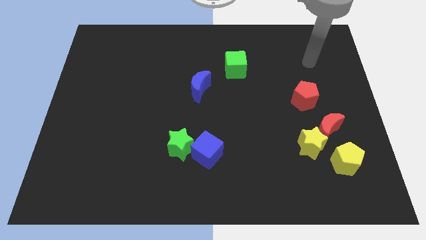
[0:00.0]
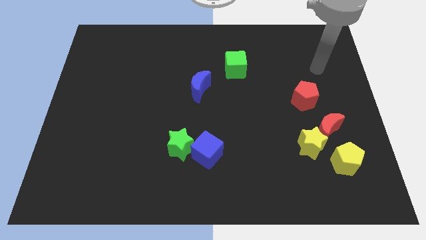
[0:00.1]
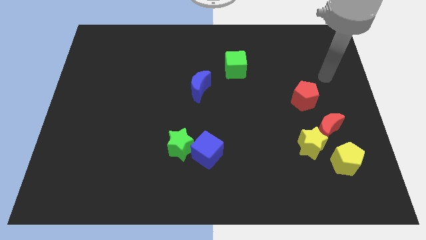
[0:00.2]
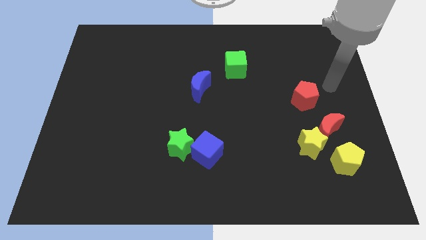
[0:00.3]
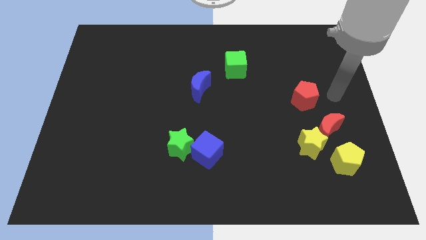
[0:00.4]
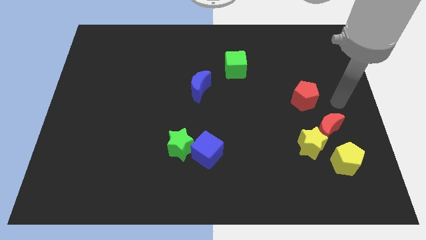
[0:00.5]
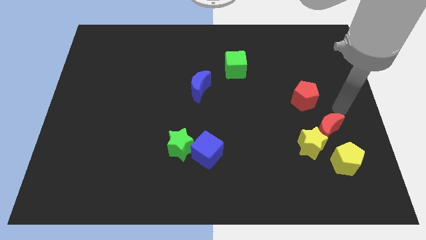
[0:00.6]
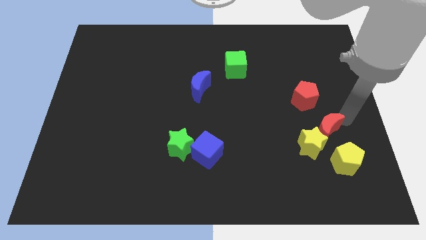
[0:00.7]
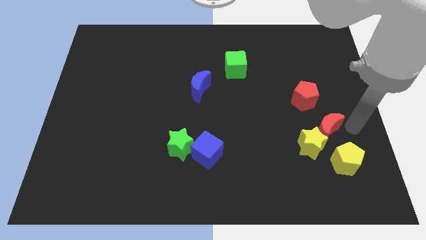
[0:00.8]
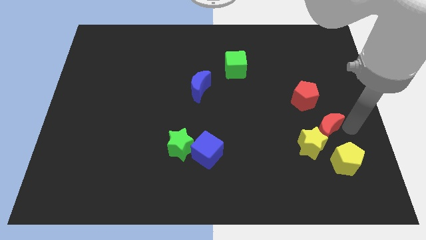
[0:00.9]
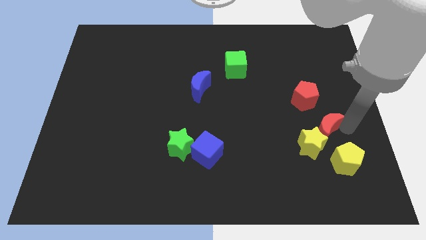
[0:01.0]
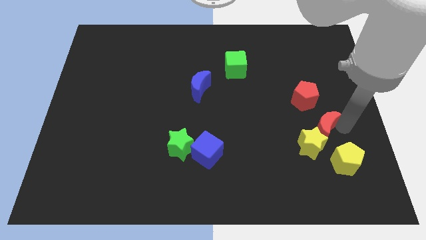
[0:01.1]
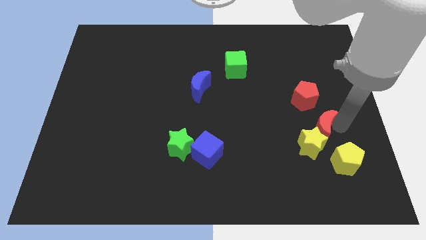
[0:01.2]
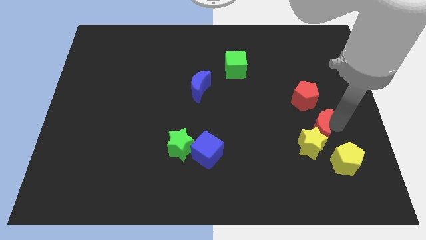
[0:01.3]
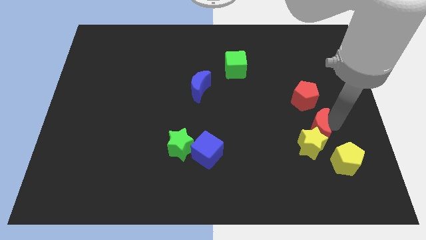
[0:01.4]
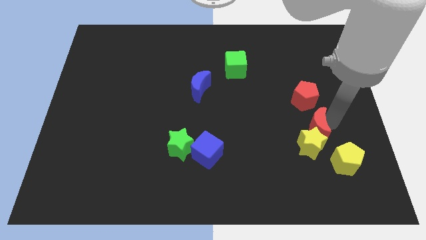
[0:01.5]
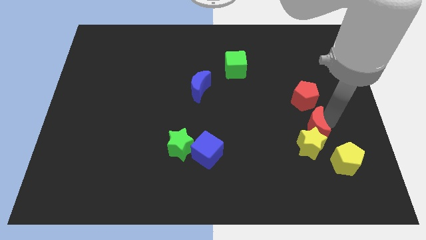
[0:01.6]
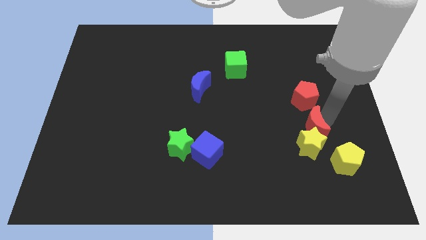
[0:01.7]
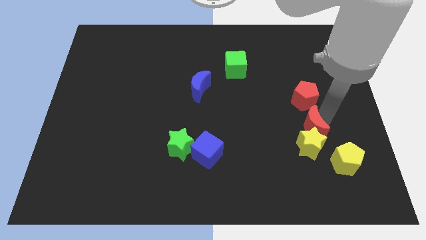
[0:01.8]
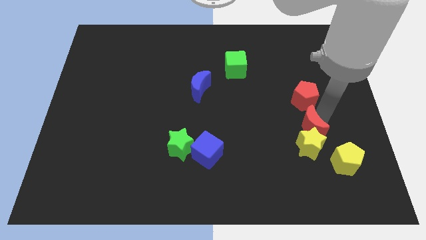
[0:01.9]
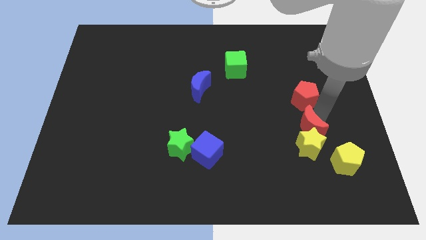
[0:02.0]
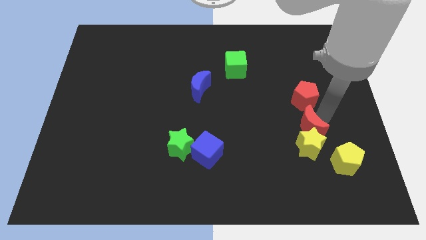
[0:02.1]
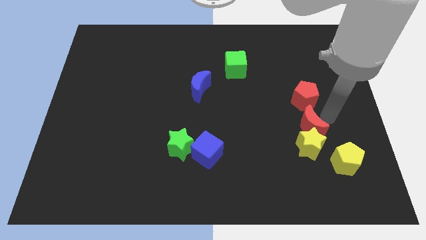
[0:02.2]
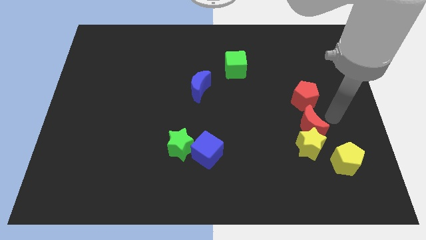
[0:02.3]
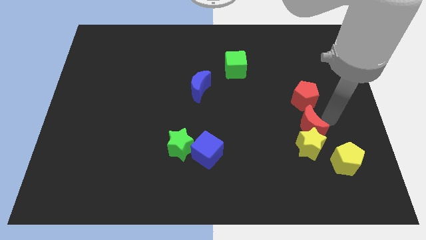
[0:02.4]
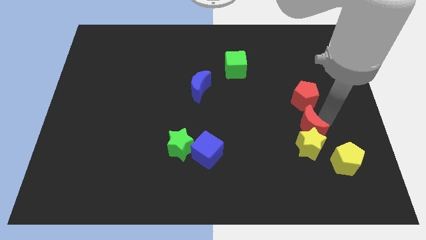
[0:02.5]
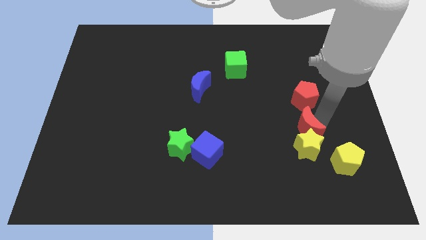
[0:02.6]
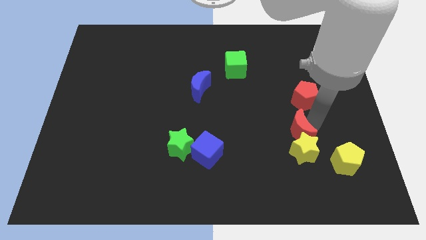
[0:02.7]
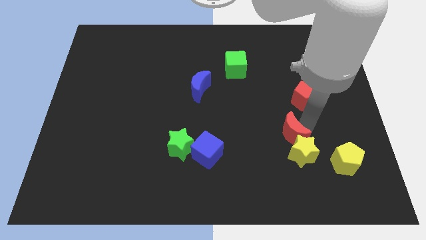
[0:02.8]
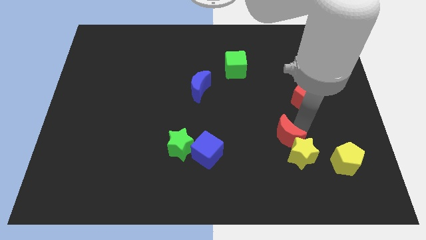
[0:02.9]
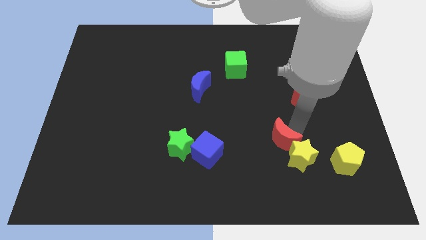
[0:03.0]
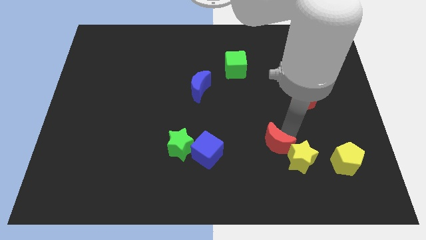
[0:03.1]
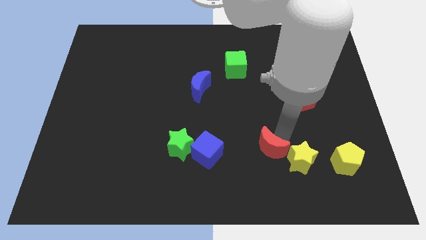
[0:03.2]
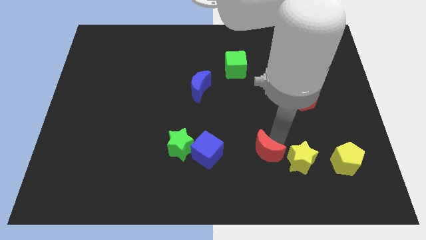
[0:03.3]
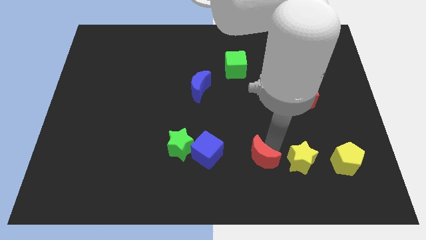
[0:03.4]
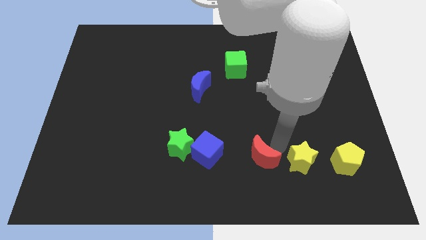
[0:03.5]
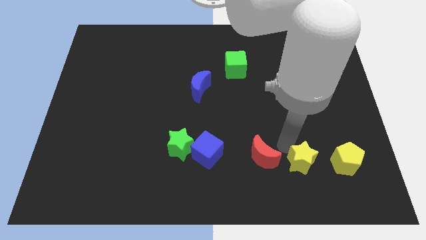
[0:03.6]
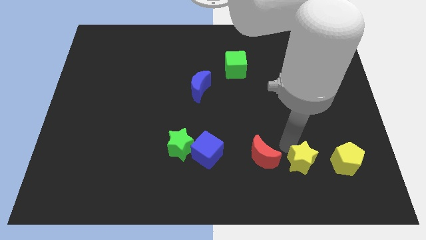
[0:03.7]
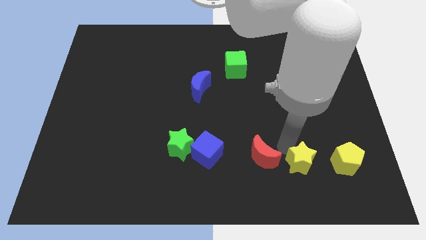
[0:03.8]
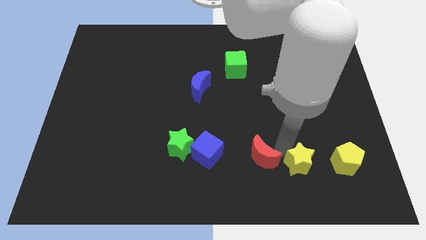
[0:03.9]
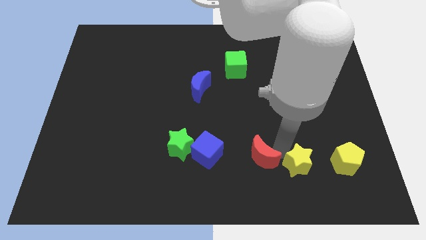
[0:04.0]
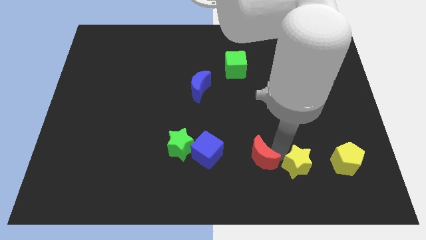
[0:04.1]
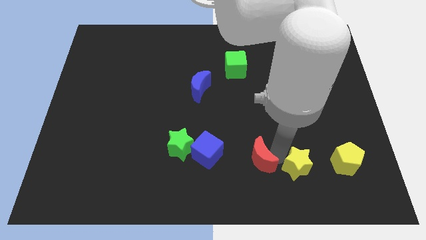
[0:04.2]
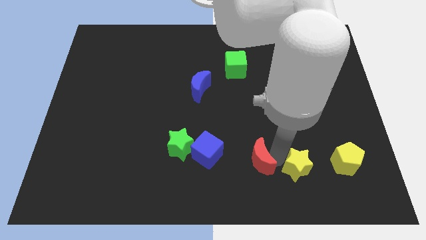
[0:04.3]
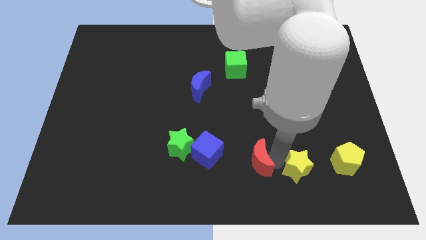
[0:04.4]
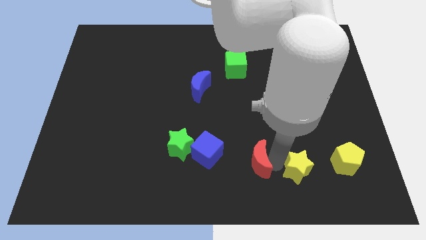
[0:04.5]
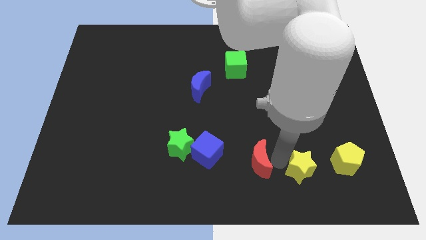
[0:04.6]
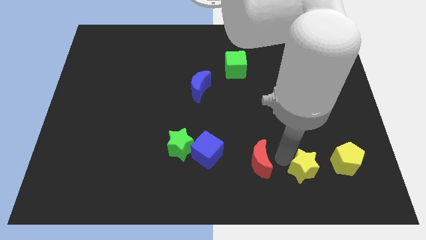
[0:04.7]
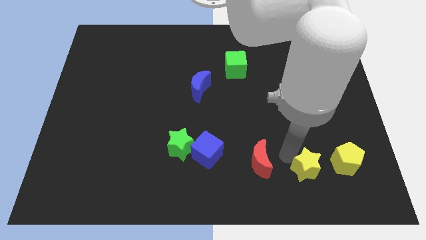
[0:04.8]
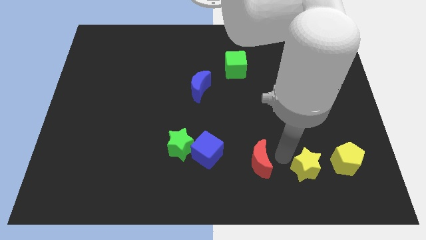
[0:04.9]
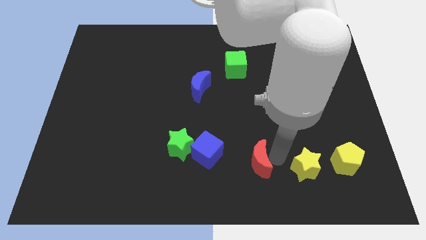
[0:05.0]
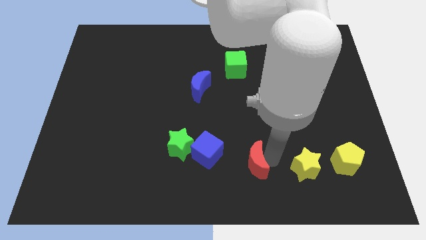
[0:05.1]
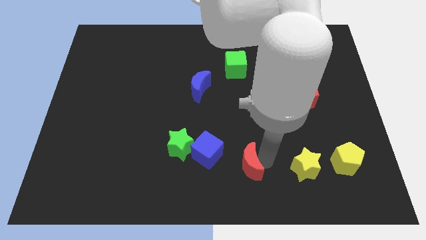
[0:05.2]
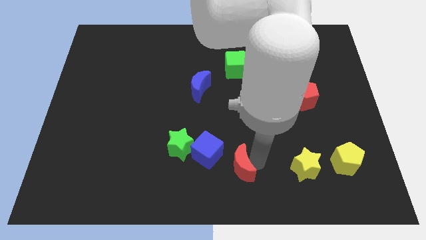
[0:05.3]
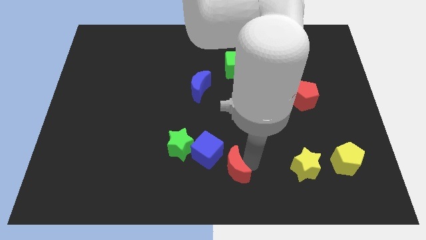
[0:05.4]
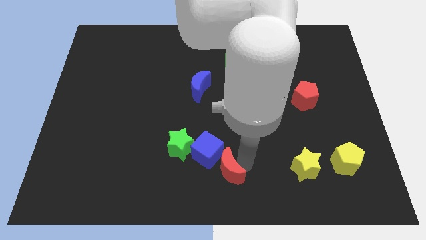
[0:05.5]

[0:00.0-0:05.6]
put the red moon to the bottom right side of the green star

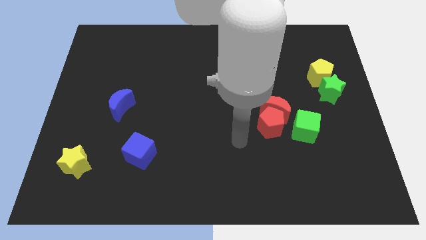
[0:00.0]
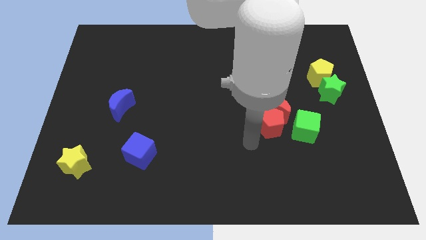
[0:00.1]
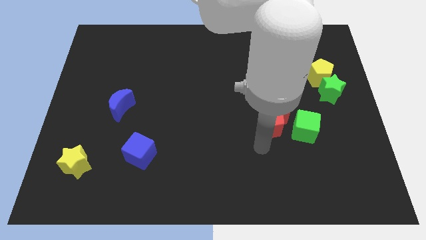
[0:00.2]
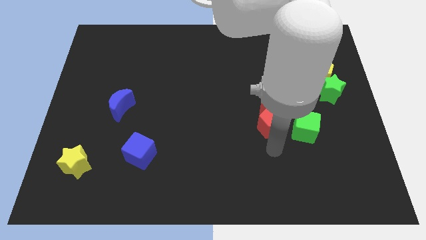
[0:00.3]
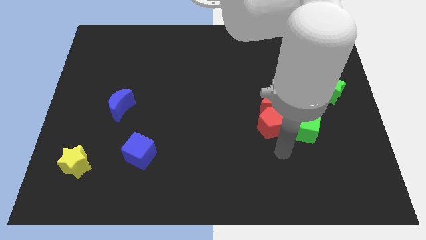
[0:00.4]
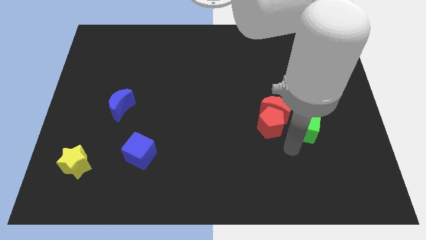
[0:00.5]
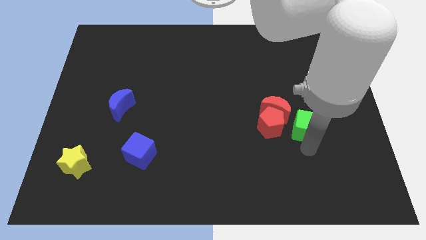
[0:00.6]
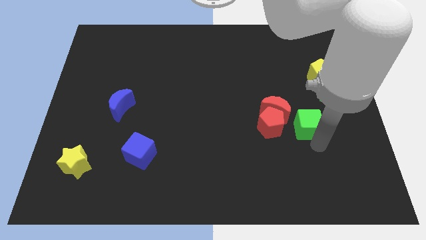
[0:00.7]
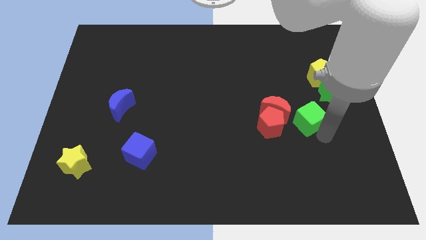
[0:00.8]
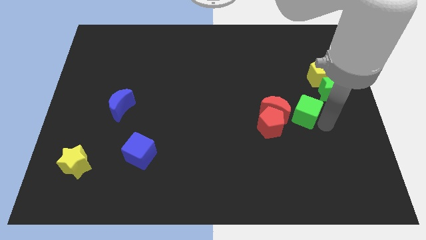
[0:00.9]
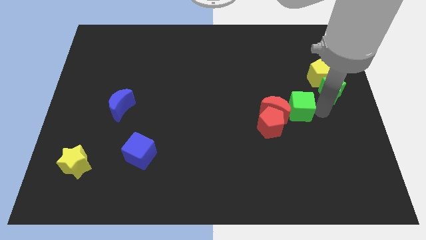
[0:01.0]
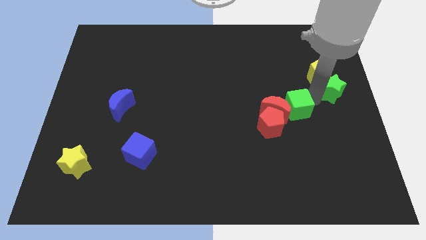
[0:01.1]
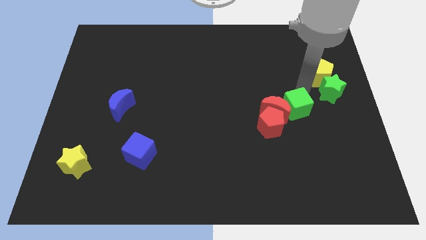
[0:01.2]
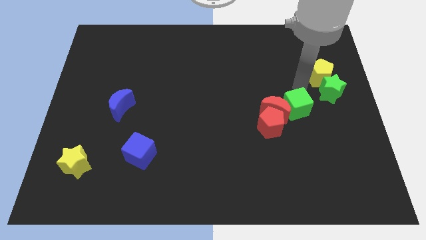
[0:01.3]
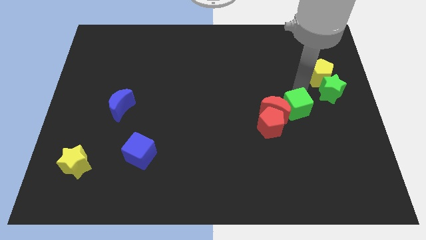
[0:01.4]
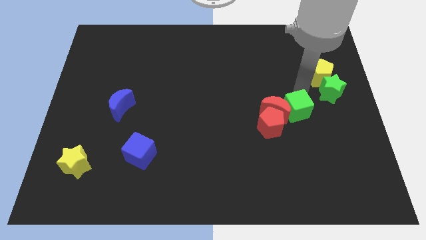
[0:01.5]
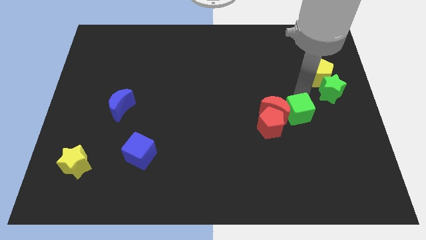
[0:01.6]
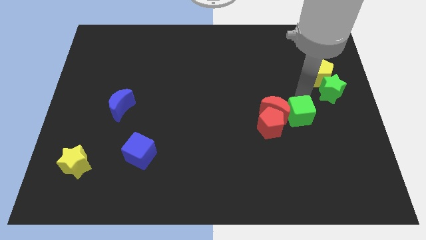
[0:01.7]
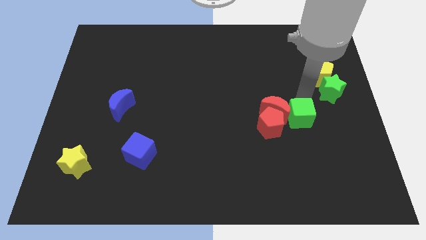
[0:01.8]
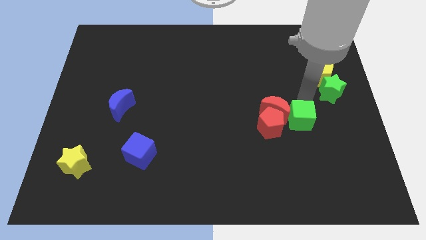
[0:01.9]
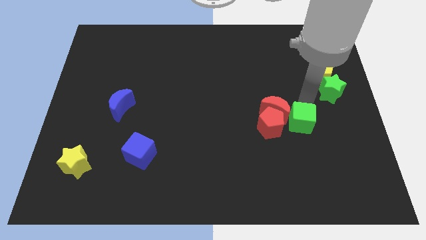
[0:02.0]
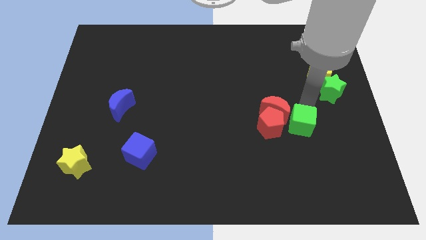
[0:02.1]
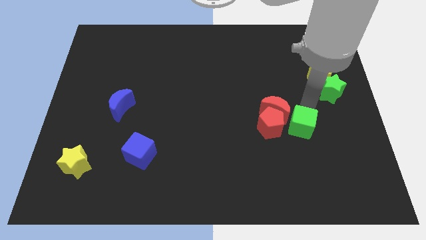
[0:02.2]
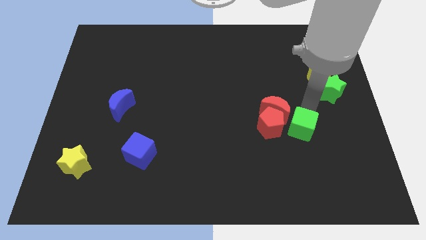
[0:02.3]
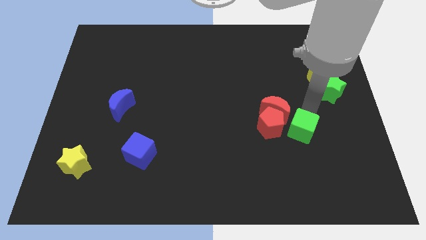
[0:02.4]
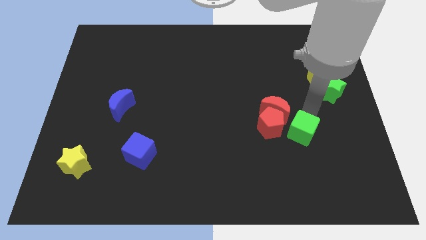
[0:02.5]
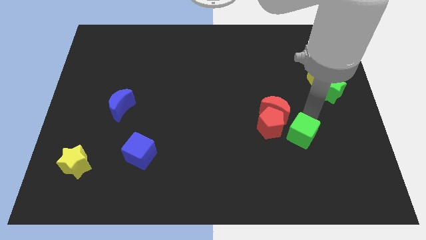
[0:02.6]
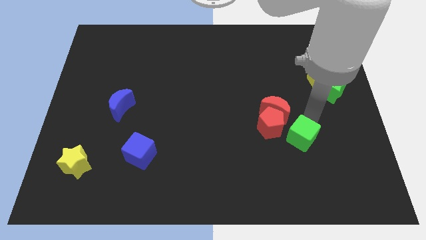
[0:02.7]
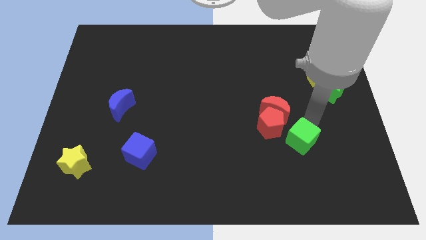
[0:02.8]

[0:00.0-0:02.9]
put the green cube to the bottom side of the red moon
